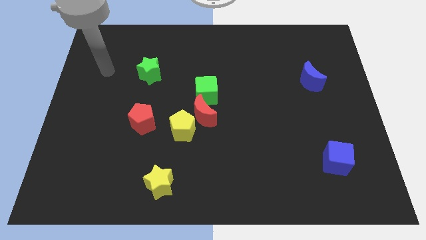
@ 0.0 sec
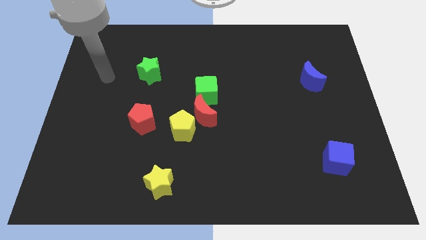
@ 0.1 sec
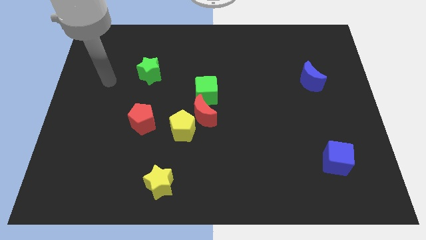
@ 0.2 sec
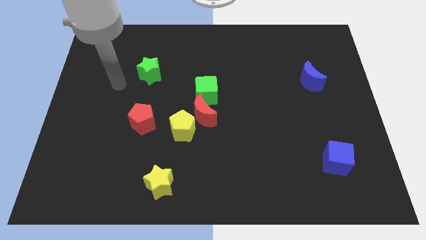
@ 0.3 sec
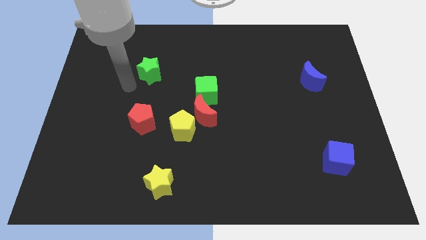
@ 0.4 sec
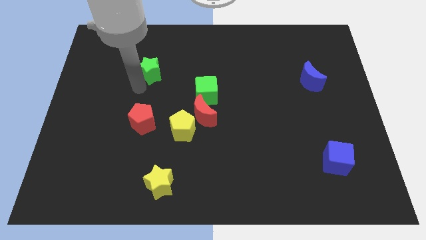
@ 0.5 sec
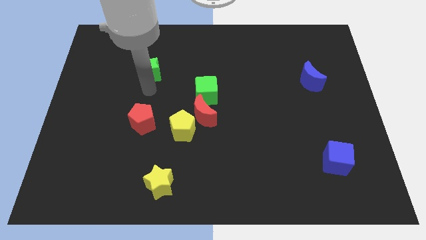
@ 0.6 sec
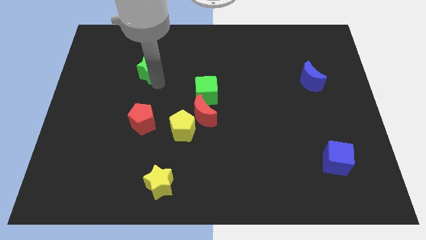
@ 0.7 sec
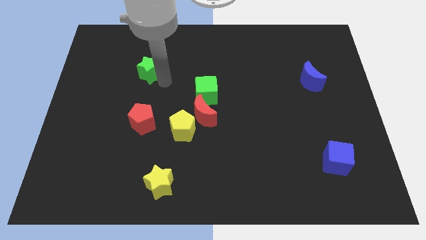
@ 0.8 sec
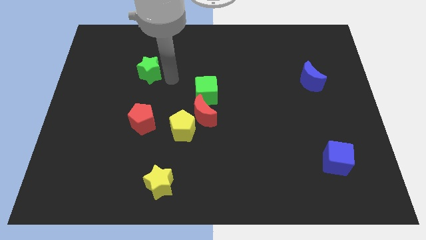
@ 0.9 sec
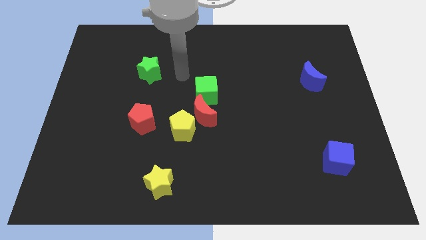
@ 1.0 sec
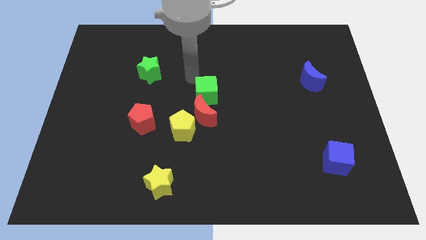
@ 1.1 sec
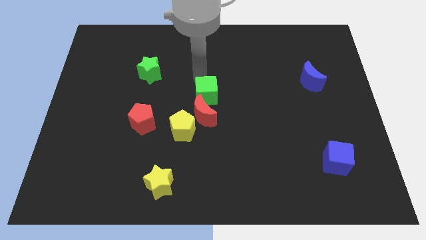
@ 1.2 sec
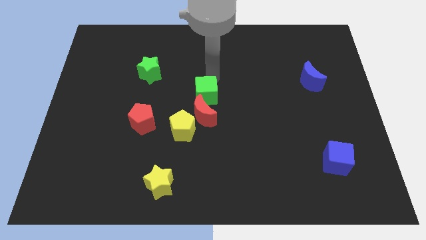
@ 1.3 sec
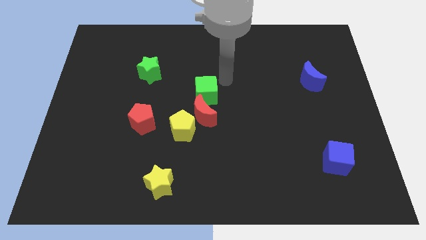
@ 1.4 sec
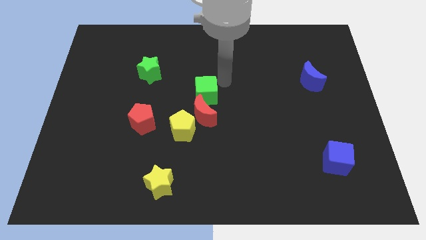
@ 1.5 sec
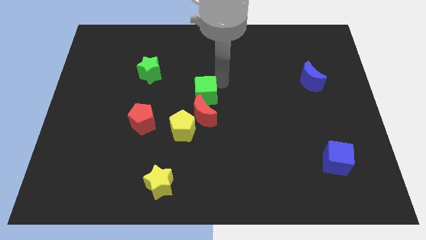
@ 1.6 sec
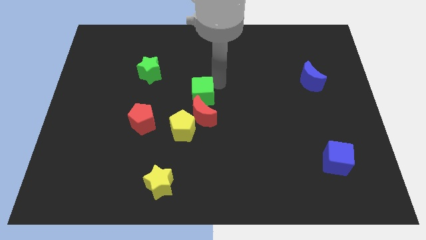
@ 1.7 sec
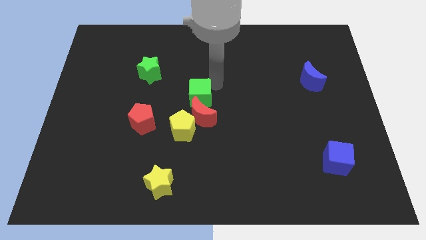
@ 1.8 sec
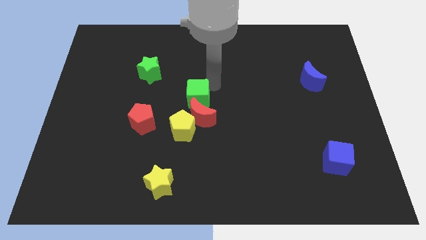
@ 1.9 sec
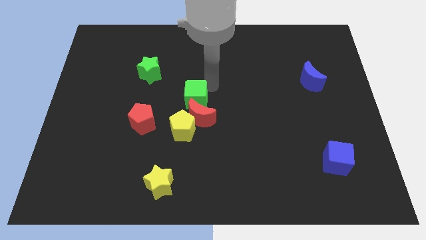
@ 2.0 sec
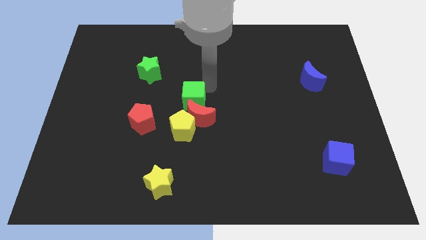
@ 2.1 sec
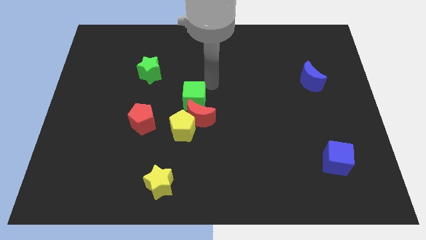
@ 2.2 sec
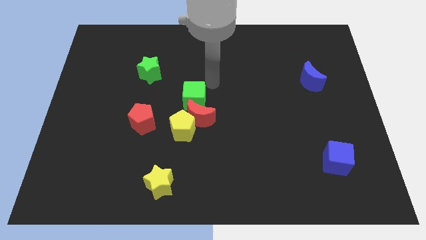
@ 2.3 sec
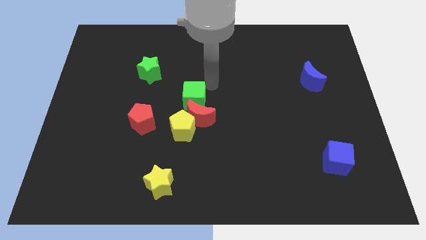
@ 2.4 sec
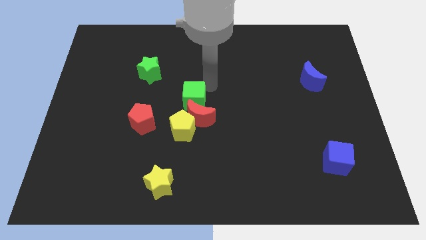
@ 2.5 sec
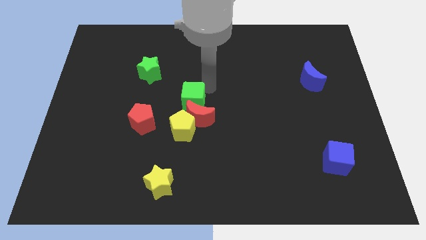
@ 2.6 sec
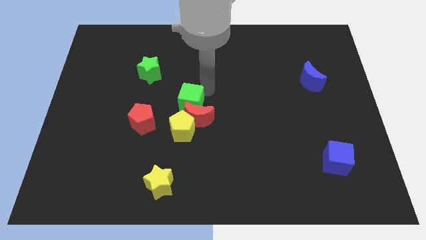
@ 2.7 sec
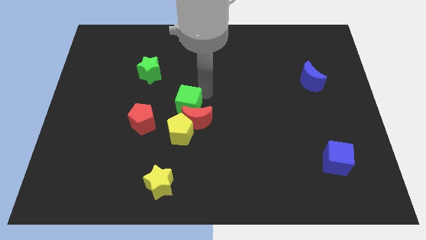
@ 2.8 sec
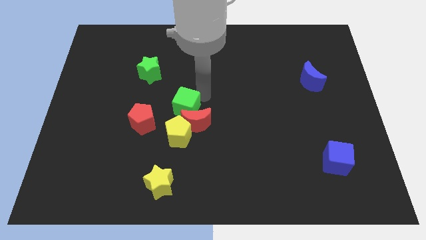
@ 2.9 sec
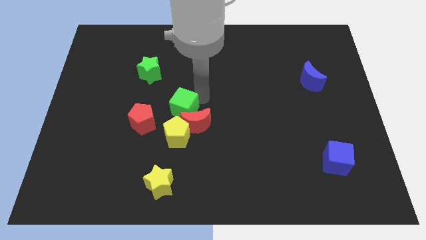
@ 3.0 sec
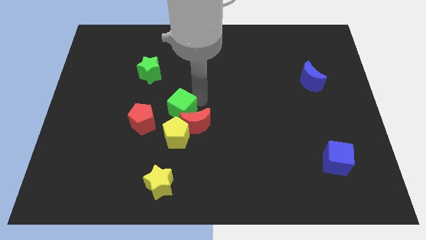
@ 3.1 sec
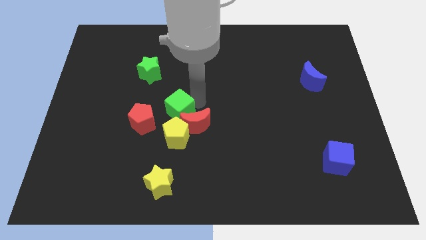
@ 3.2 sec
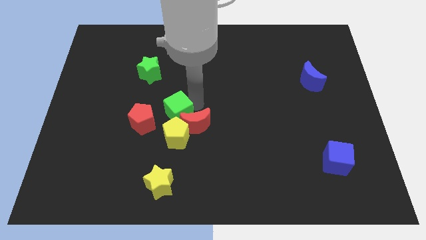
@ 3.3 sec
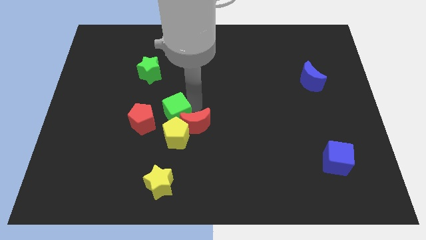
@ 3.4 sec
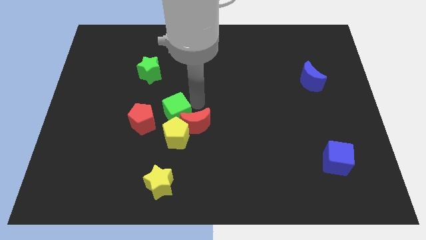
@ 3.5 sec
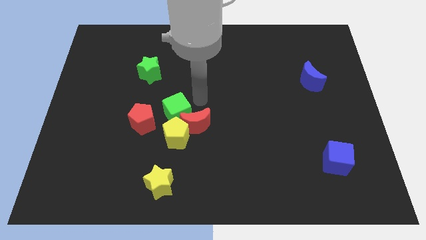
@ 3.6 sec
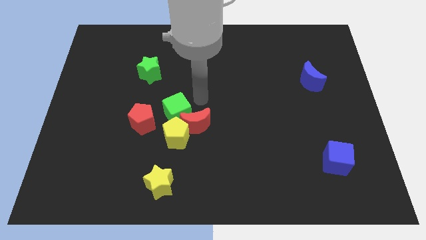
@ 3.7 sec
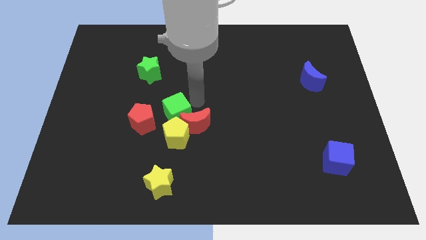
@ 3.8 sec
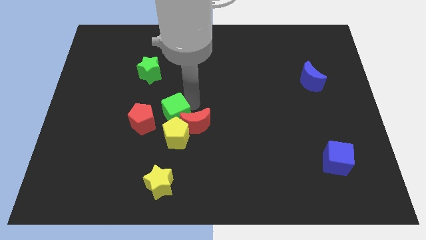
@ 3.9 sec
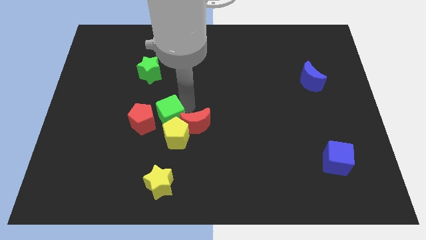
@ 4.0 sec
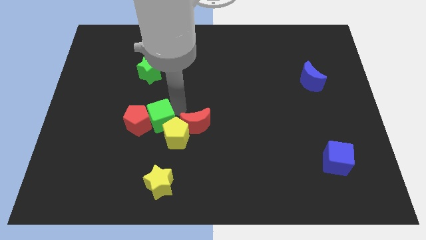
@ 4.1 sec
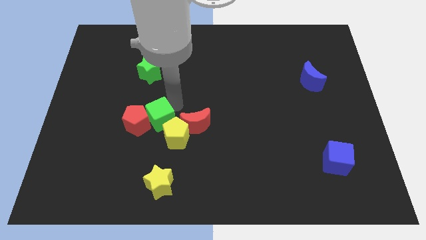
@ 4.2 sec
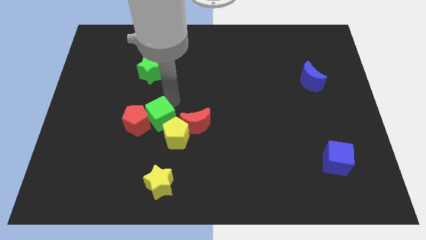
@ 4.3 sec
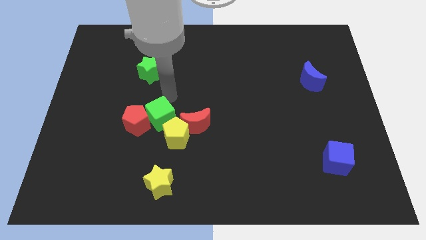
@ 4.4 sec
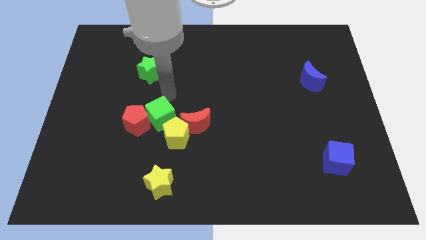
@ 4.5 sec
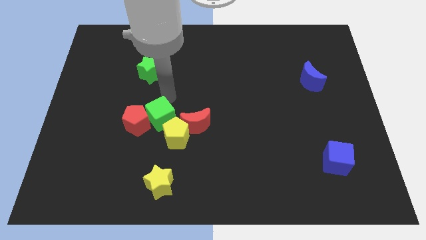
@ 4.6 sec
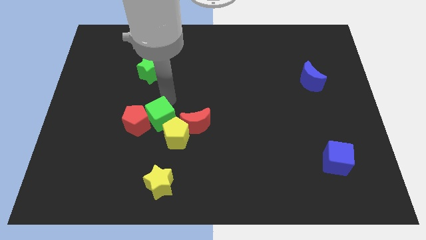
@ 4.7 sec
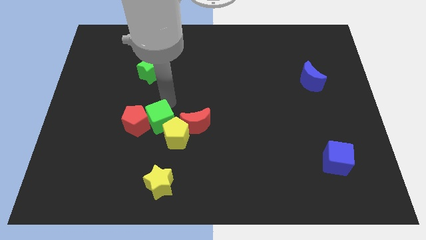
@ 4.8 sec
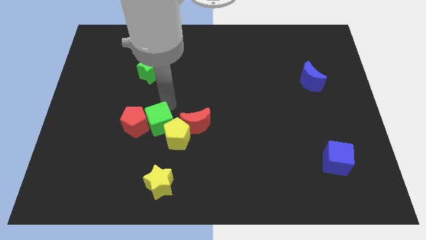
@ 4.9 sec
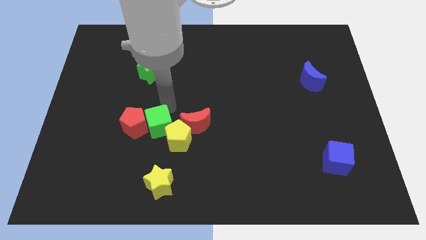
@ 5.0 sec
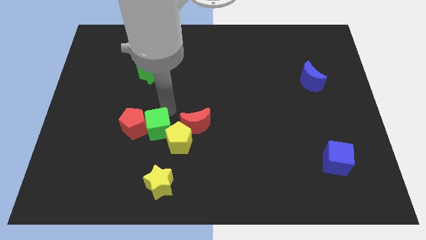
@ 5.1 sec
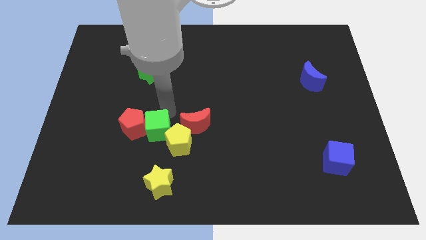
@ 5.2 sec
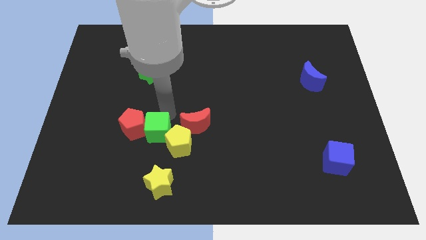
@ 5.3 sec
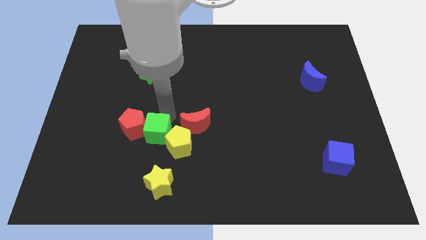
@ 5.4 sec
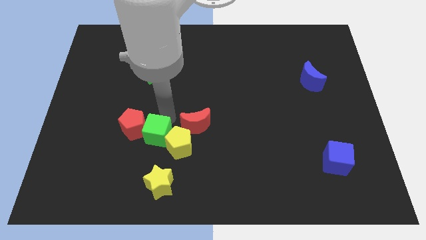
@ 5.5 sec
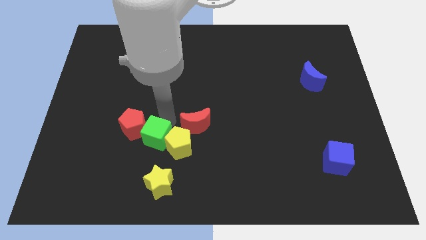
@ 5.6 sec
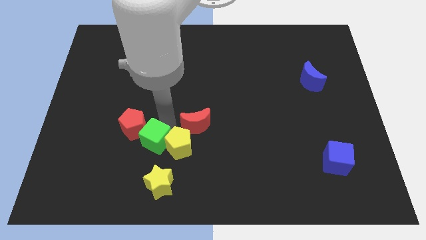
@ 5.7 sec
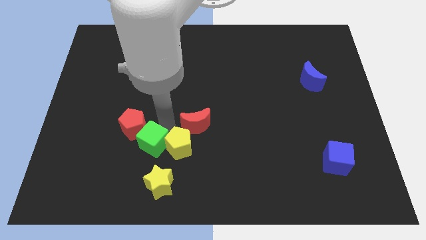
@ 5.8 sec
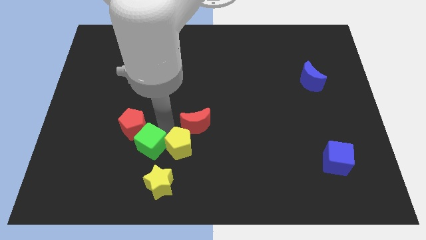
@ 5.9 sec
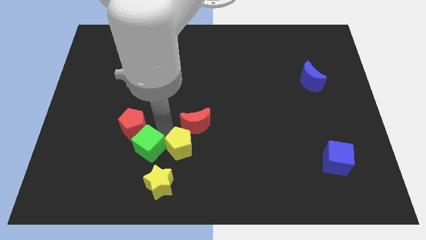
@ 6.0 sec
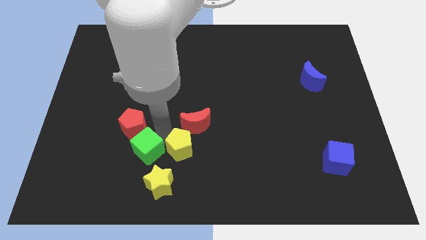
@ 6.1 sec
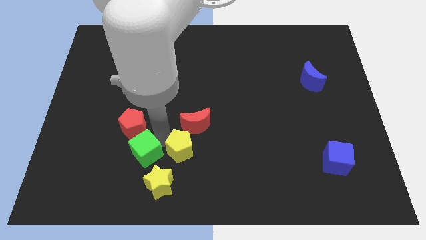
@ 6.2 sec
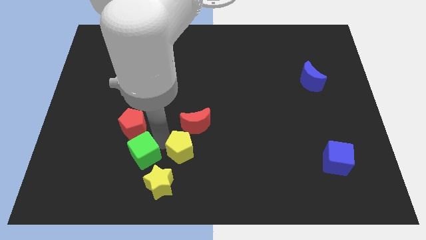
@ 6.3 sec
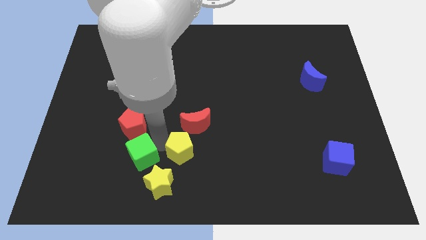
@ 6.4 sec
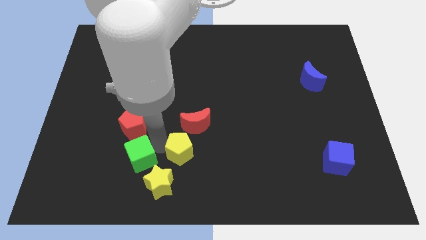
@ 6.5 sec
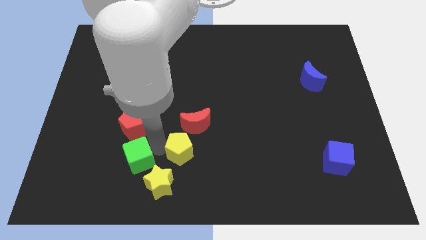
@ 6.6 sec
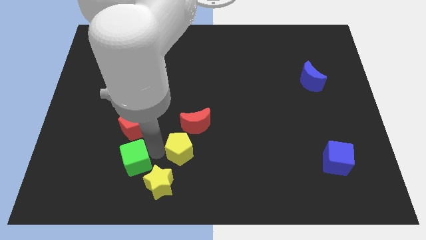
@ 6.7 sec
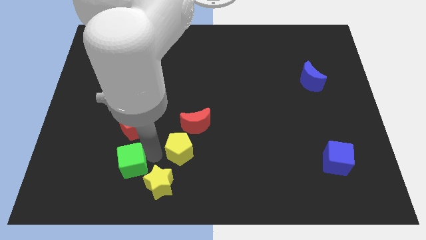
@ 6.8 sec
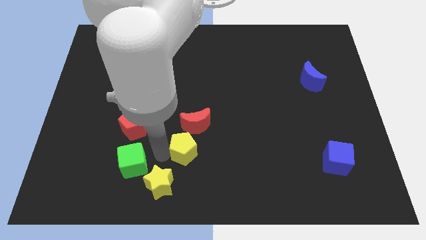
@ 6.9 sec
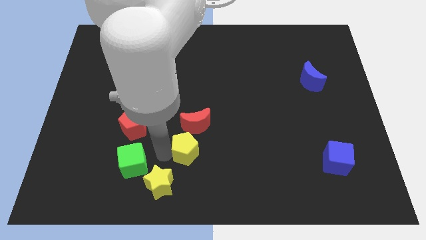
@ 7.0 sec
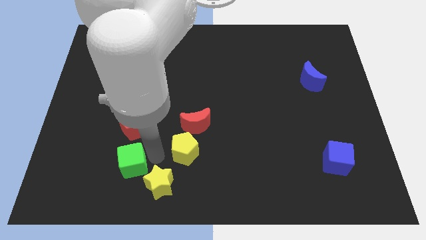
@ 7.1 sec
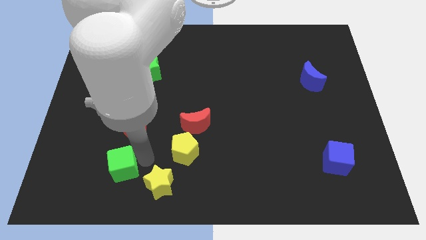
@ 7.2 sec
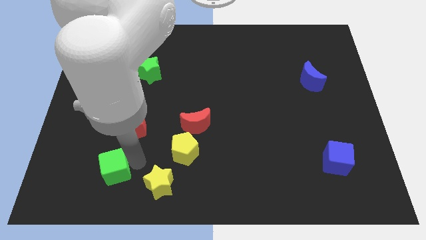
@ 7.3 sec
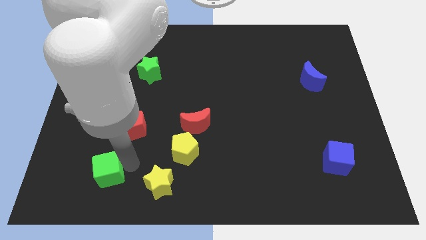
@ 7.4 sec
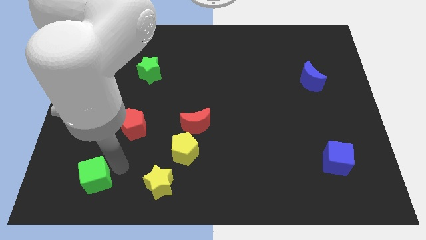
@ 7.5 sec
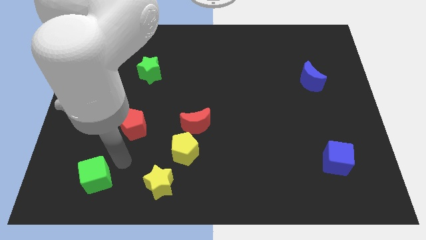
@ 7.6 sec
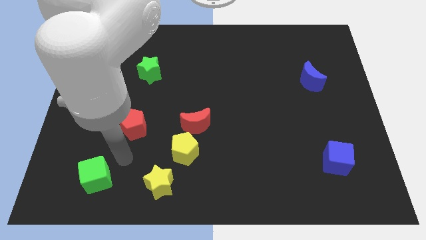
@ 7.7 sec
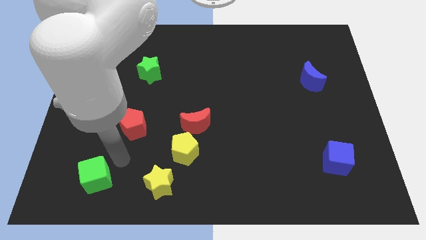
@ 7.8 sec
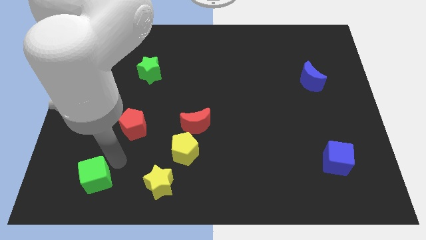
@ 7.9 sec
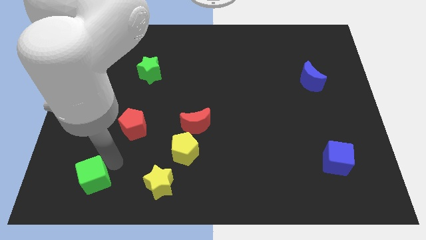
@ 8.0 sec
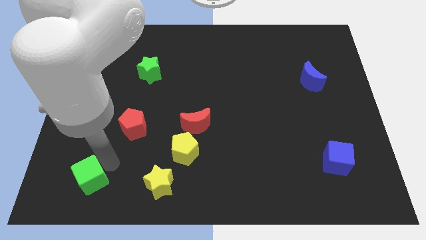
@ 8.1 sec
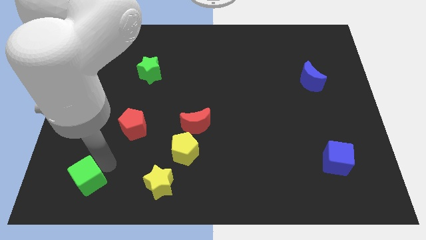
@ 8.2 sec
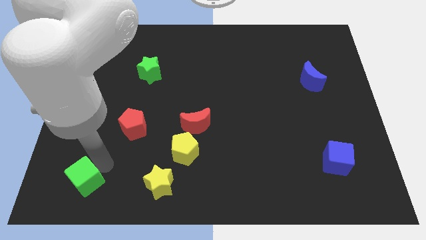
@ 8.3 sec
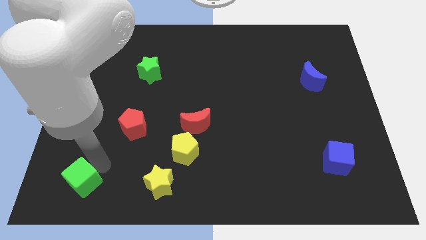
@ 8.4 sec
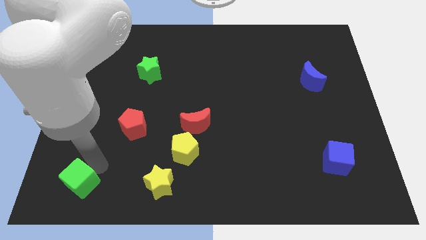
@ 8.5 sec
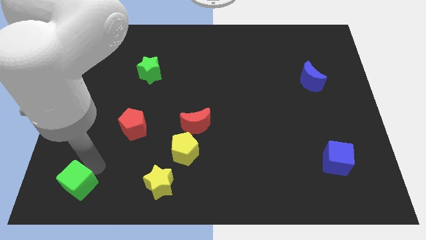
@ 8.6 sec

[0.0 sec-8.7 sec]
push the green cube to the bottom left of the board
